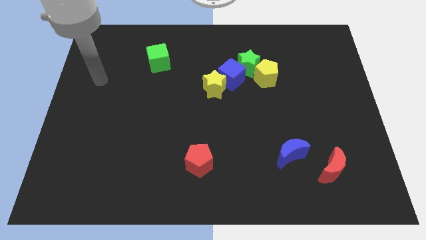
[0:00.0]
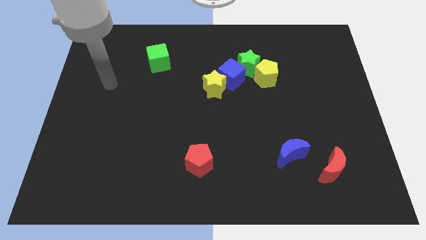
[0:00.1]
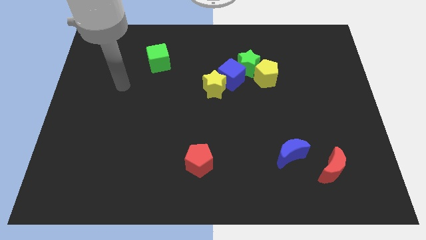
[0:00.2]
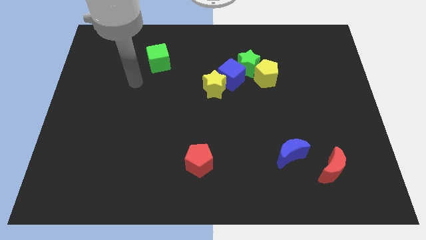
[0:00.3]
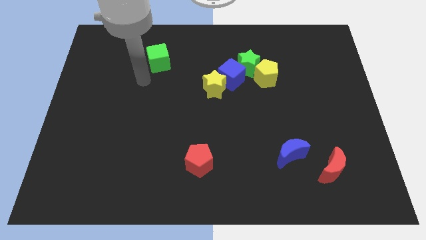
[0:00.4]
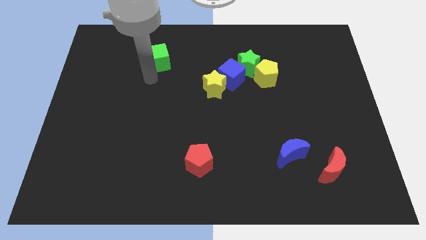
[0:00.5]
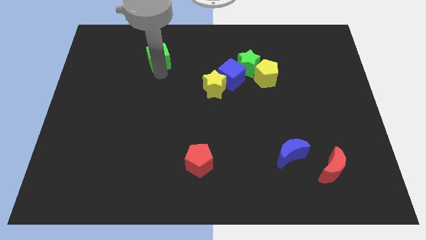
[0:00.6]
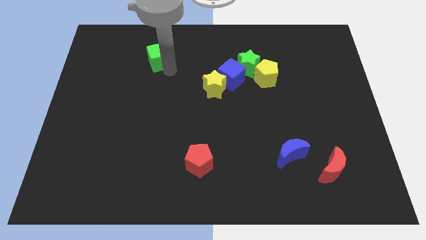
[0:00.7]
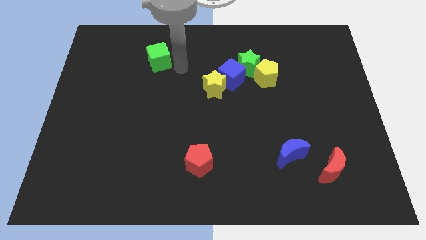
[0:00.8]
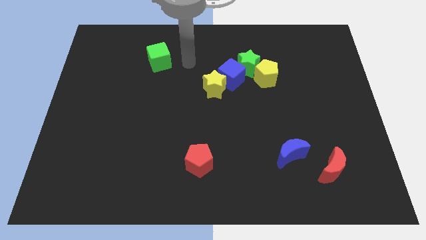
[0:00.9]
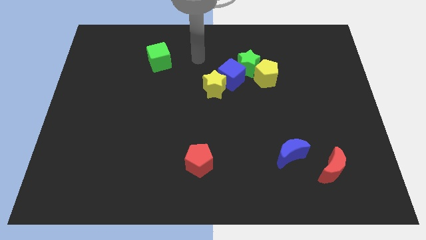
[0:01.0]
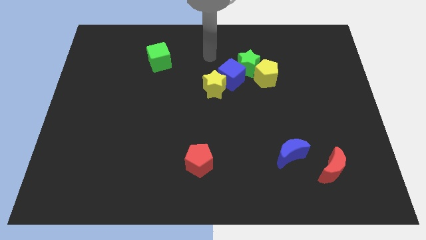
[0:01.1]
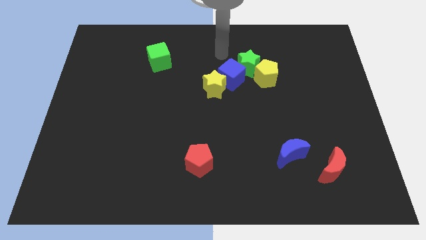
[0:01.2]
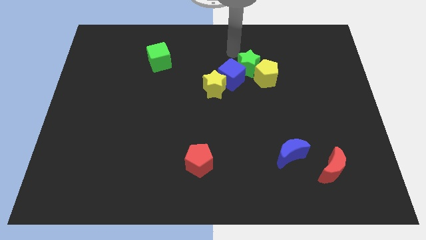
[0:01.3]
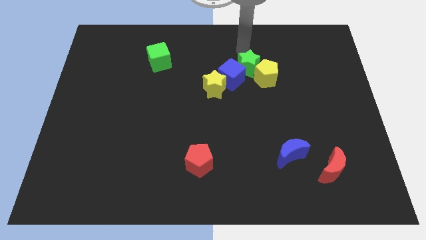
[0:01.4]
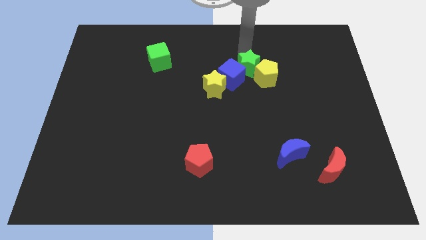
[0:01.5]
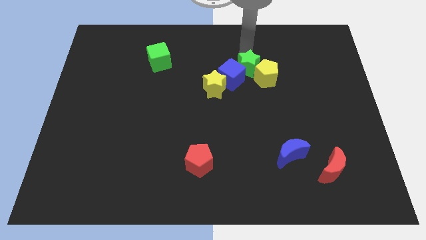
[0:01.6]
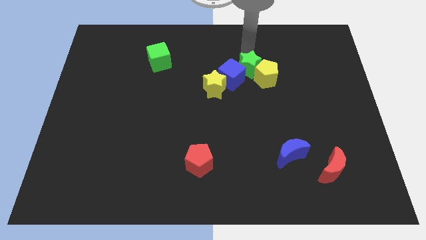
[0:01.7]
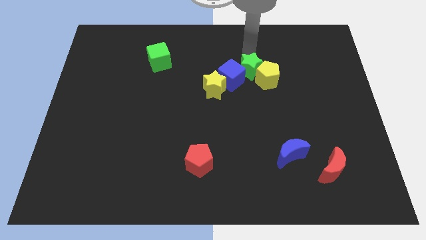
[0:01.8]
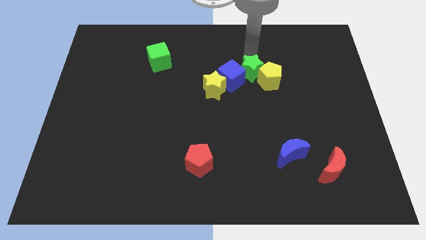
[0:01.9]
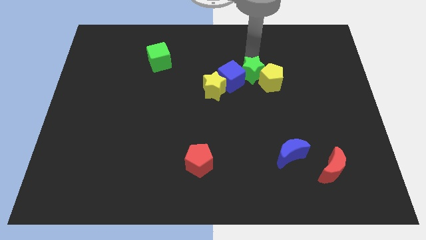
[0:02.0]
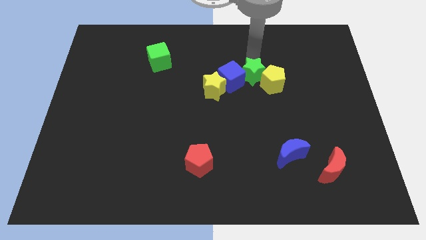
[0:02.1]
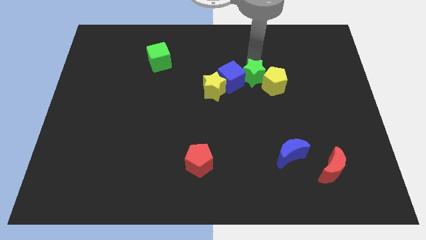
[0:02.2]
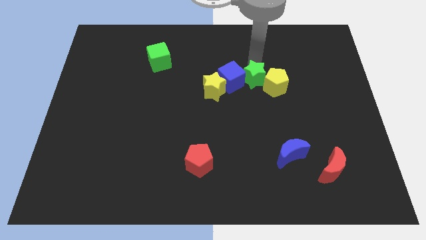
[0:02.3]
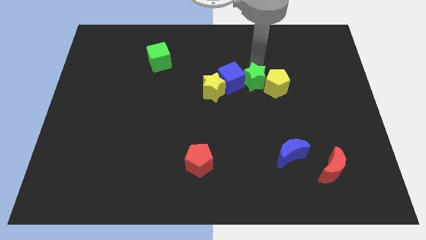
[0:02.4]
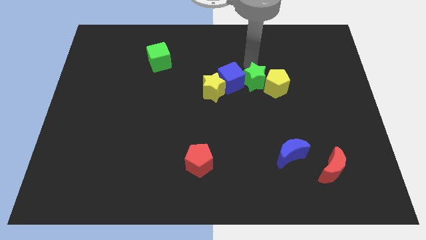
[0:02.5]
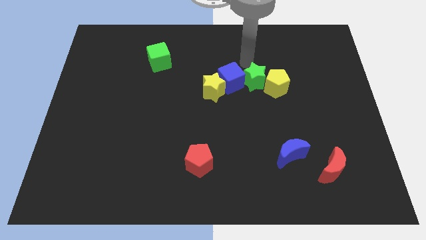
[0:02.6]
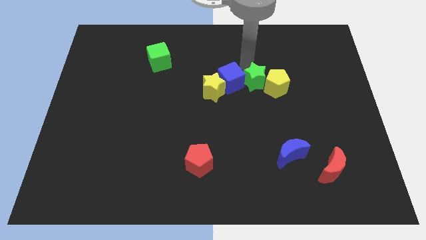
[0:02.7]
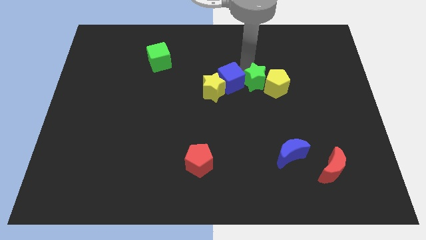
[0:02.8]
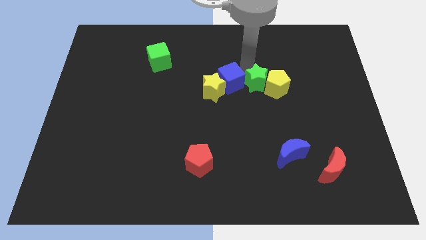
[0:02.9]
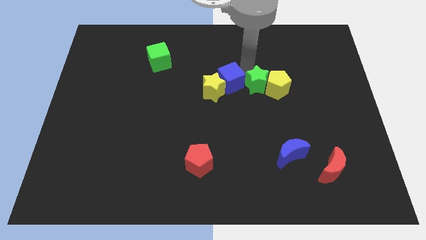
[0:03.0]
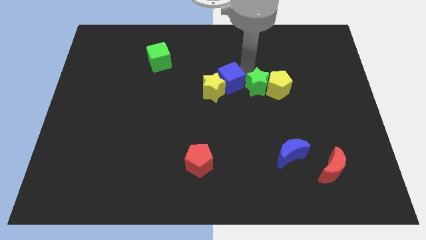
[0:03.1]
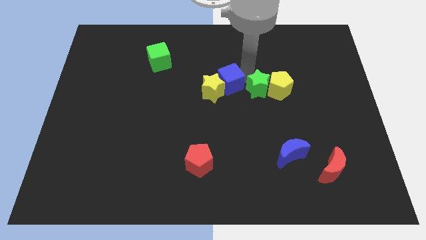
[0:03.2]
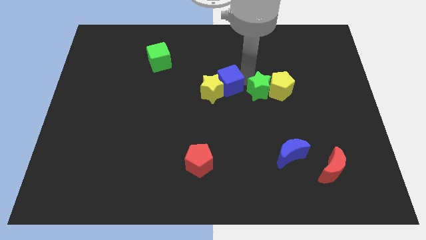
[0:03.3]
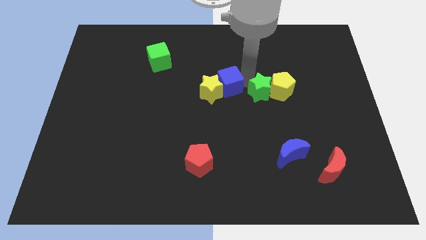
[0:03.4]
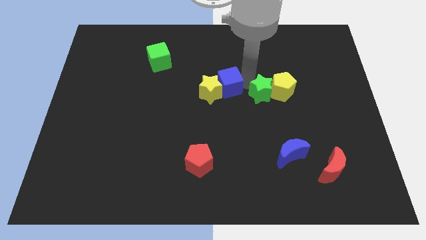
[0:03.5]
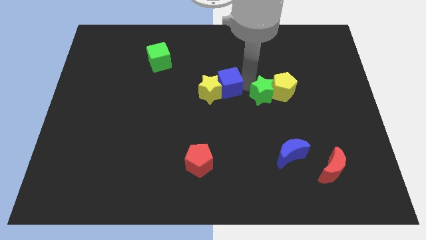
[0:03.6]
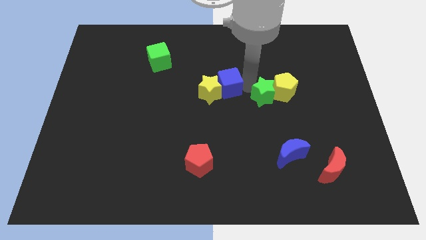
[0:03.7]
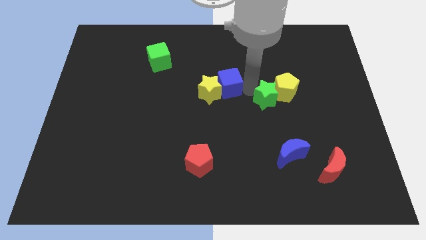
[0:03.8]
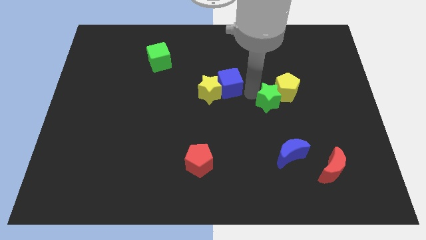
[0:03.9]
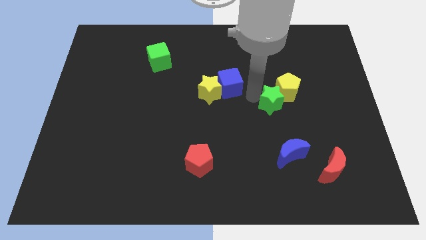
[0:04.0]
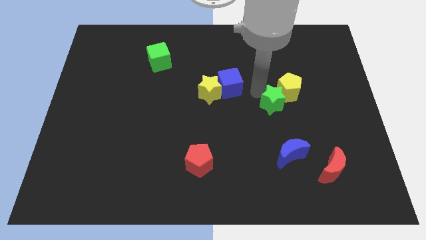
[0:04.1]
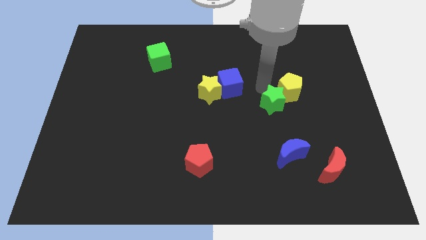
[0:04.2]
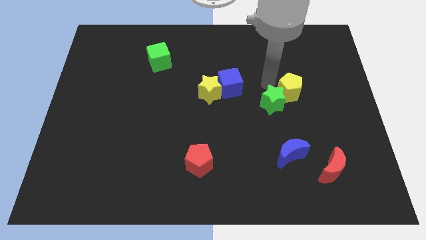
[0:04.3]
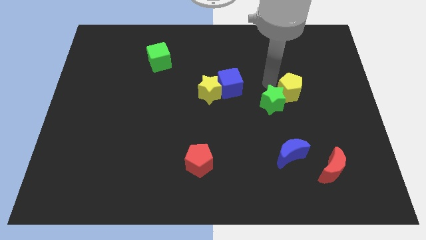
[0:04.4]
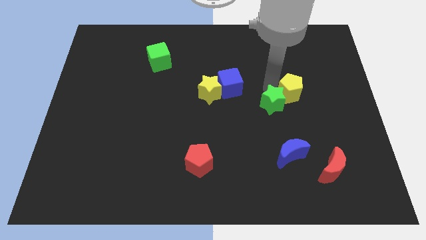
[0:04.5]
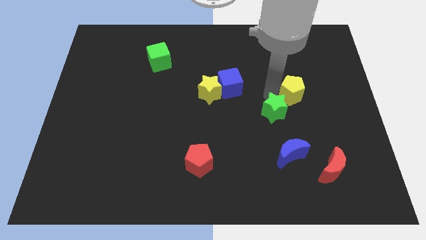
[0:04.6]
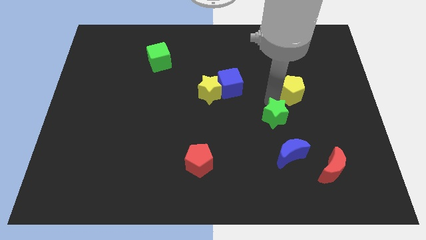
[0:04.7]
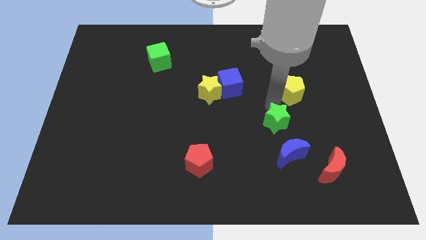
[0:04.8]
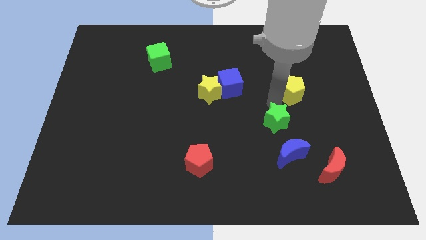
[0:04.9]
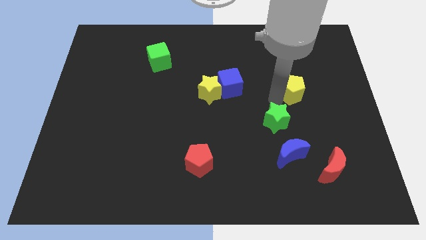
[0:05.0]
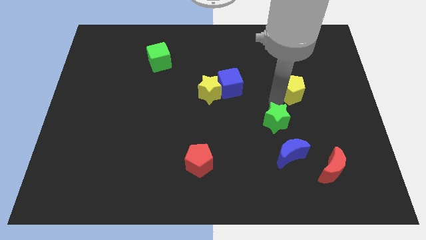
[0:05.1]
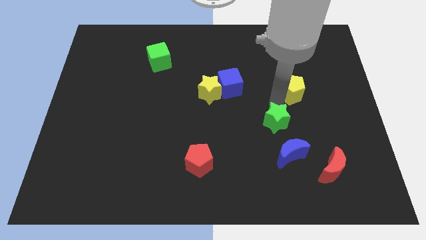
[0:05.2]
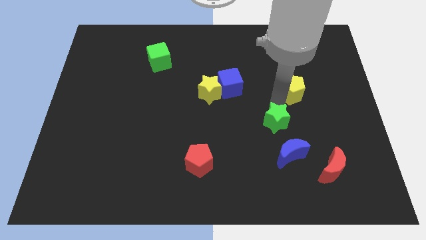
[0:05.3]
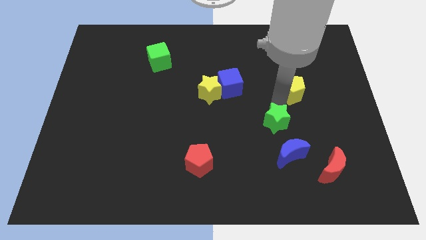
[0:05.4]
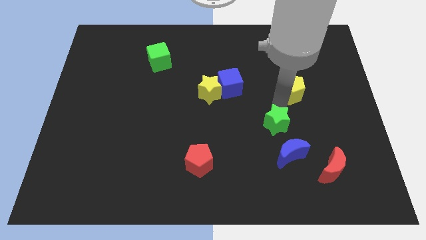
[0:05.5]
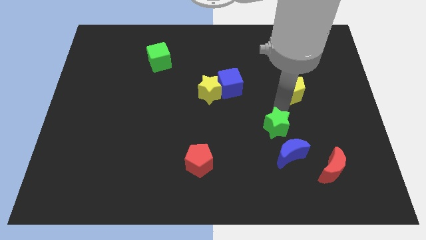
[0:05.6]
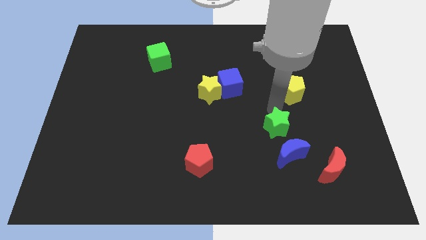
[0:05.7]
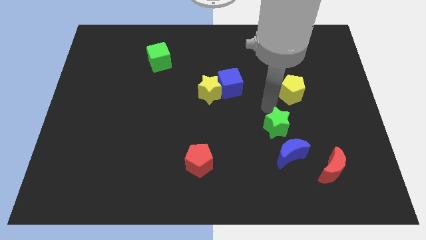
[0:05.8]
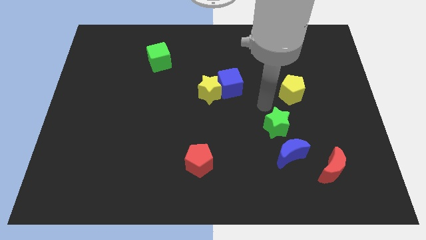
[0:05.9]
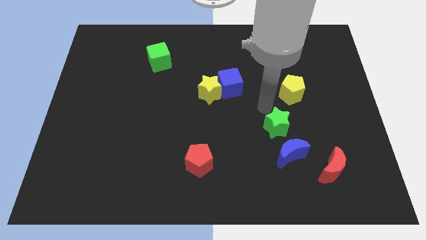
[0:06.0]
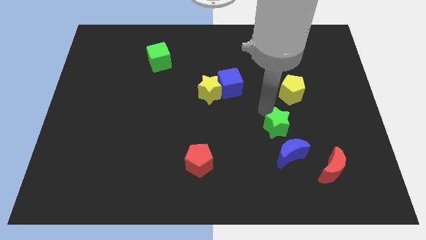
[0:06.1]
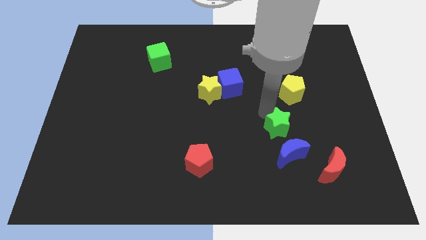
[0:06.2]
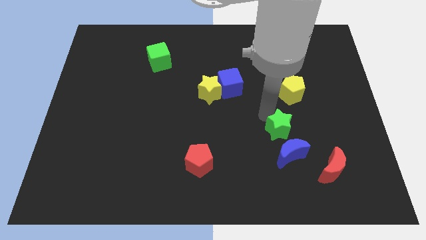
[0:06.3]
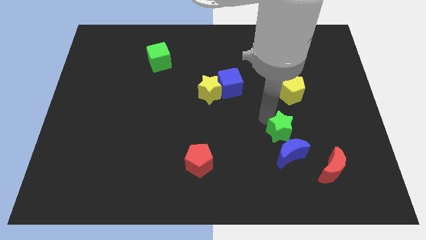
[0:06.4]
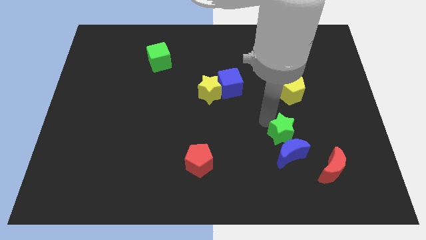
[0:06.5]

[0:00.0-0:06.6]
move the green star close to the blue moon

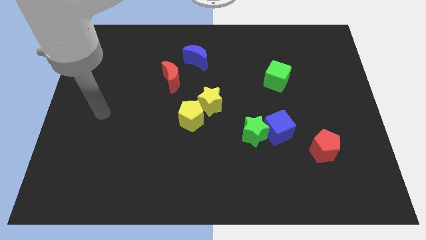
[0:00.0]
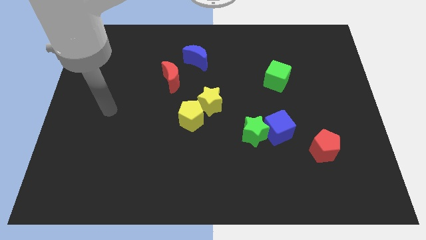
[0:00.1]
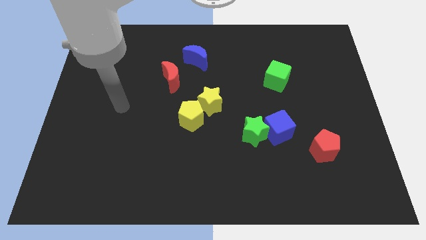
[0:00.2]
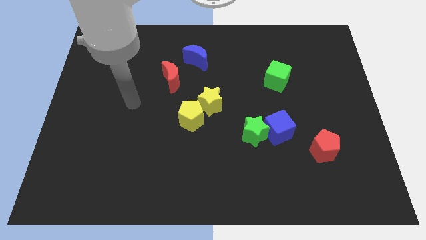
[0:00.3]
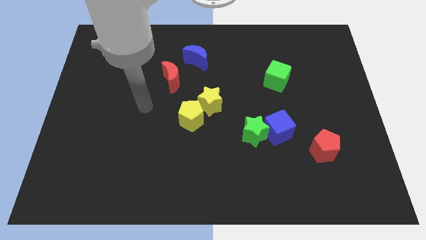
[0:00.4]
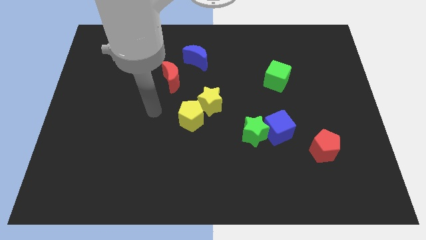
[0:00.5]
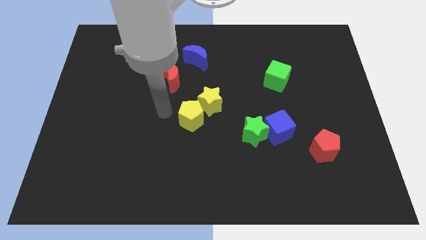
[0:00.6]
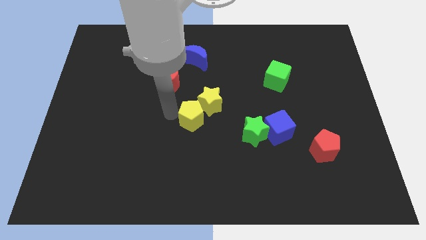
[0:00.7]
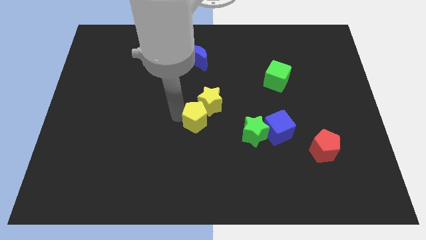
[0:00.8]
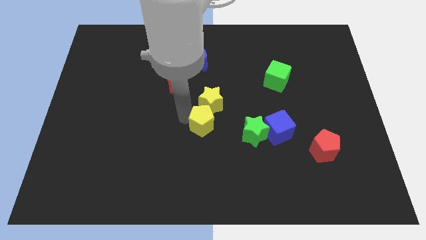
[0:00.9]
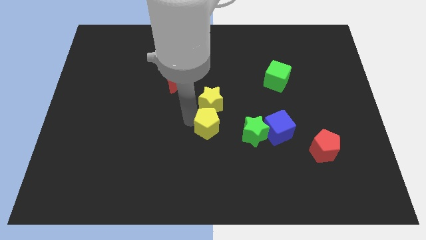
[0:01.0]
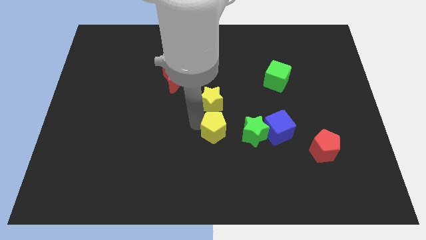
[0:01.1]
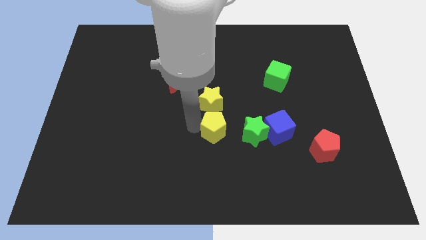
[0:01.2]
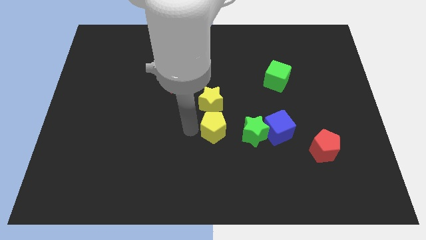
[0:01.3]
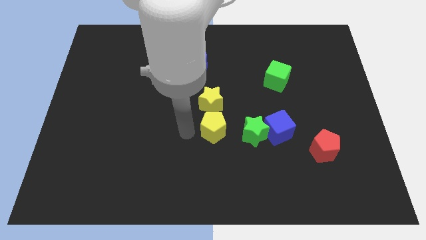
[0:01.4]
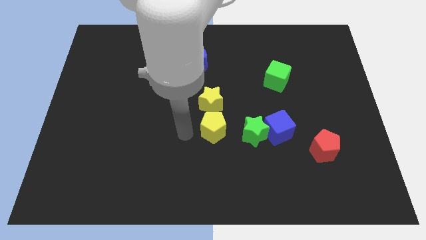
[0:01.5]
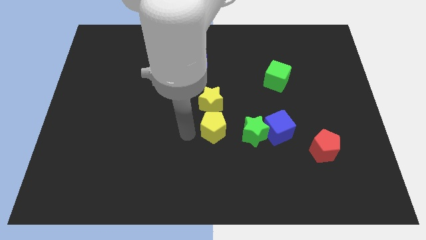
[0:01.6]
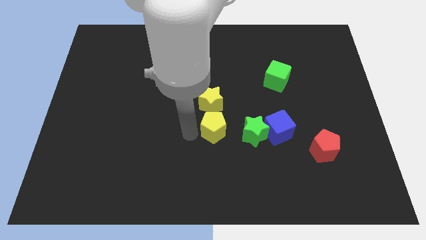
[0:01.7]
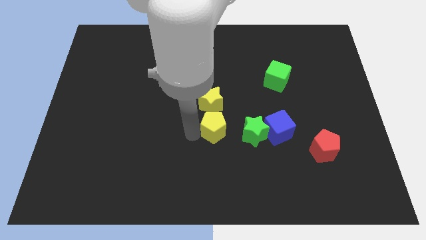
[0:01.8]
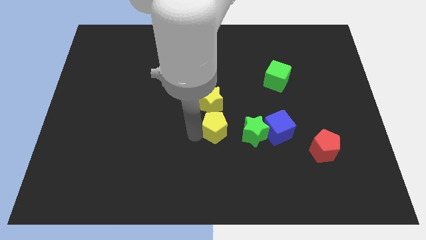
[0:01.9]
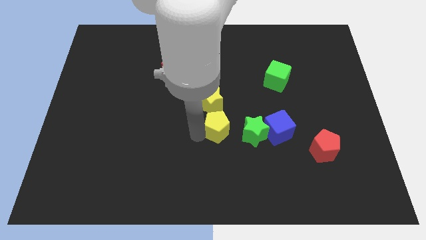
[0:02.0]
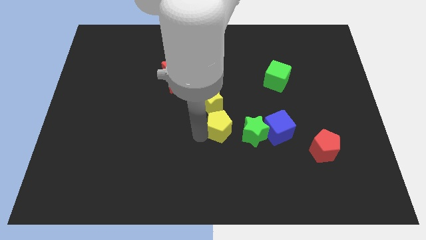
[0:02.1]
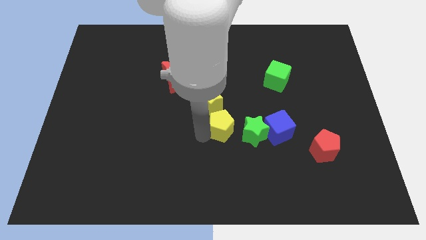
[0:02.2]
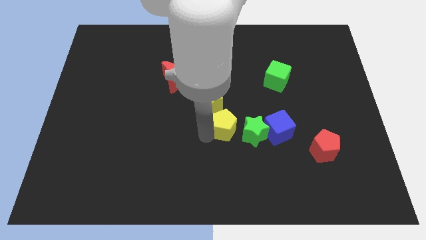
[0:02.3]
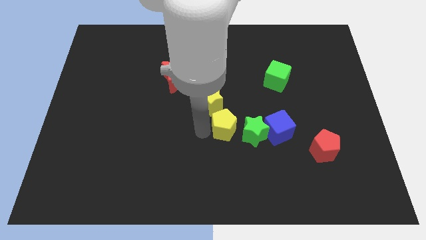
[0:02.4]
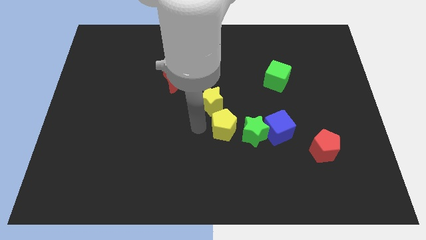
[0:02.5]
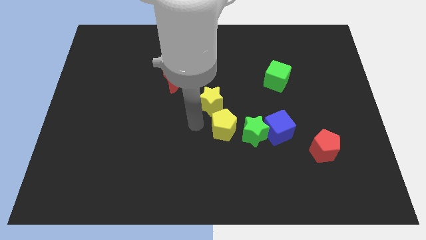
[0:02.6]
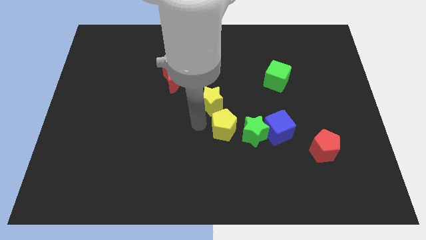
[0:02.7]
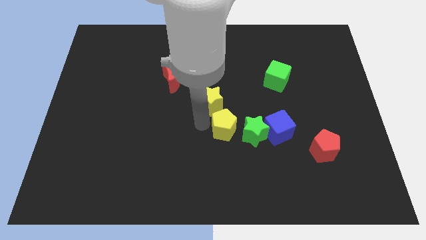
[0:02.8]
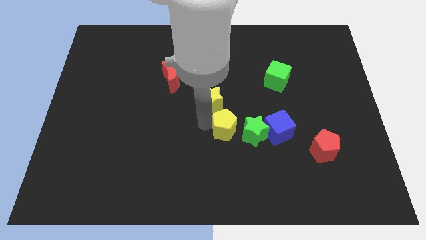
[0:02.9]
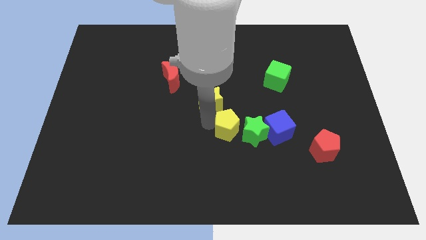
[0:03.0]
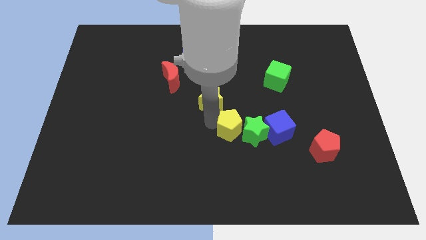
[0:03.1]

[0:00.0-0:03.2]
push the yellow pentagon to the green star
